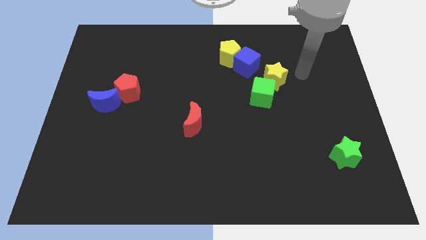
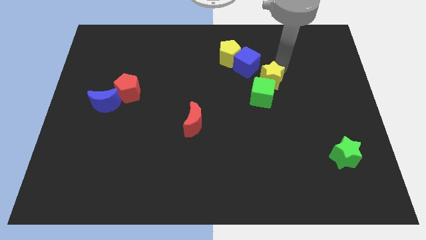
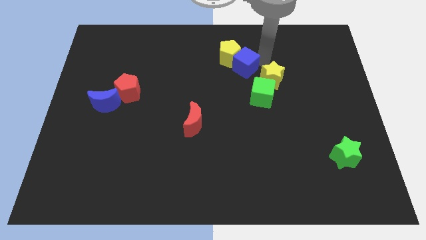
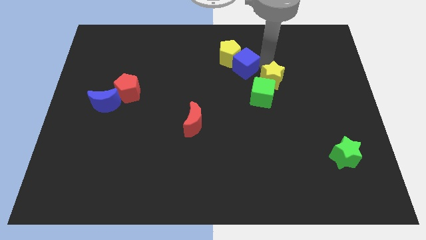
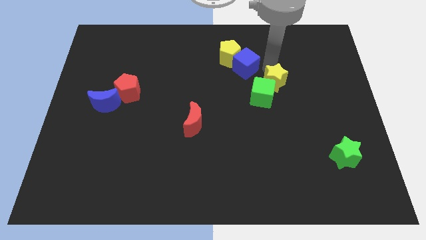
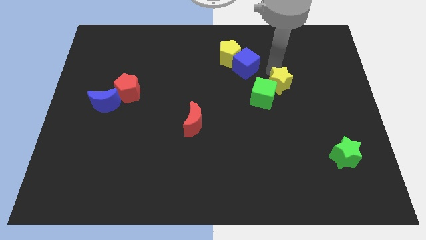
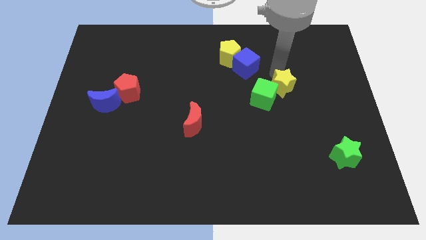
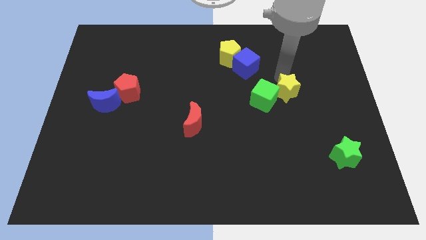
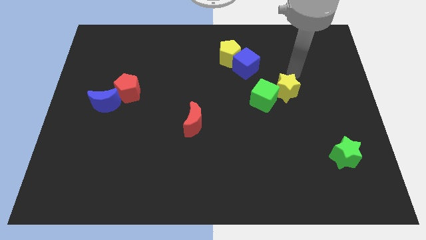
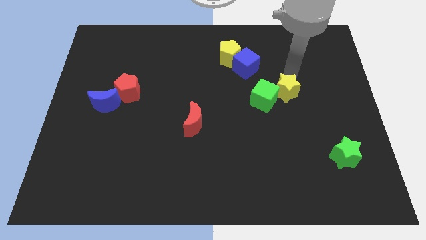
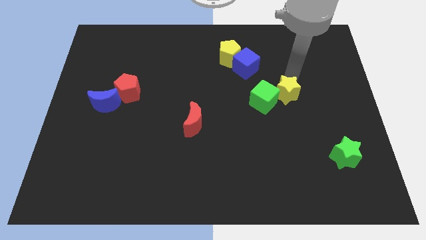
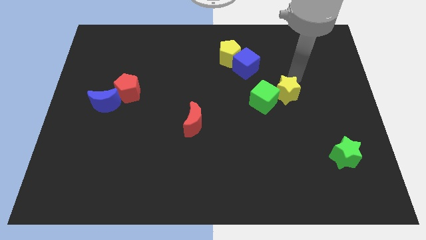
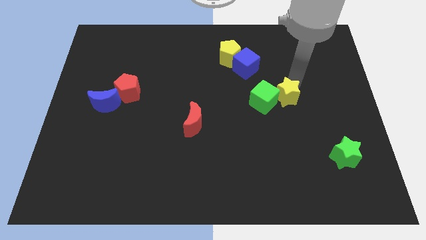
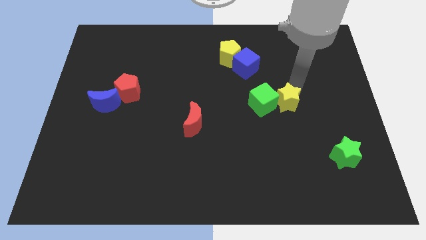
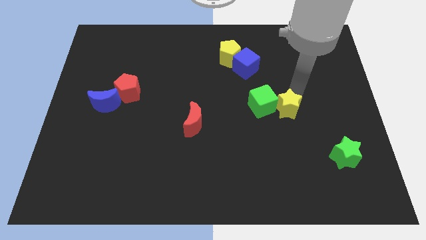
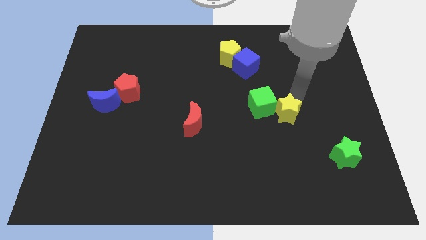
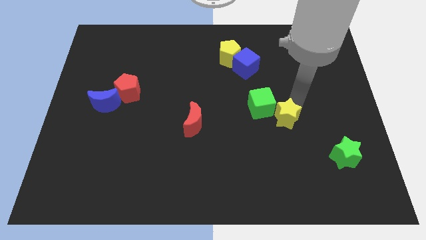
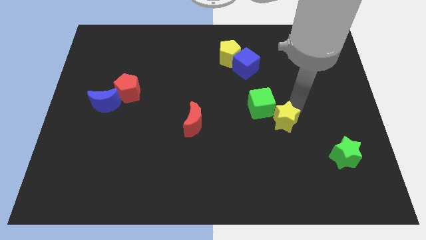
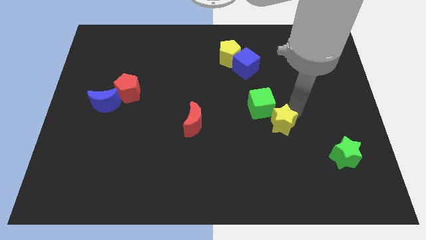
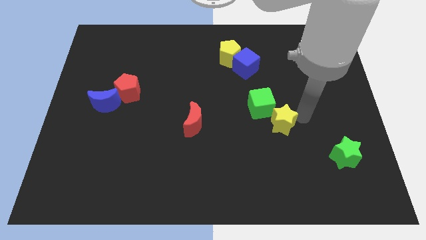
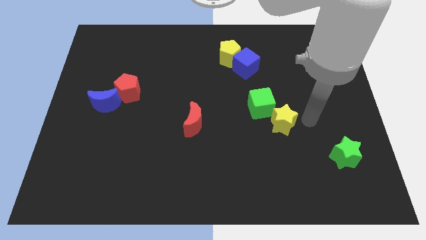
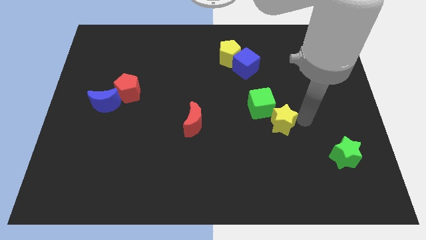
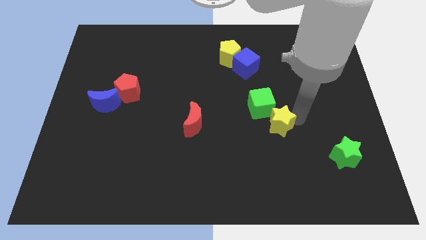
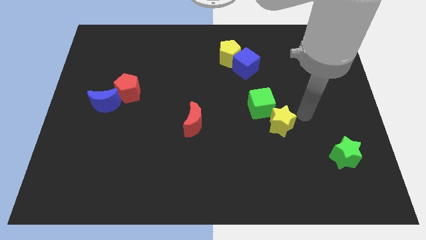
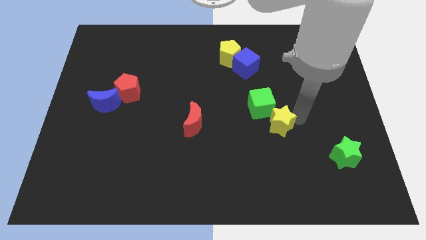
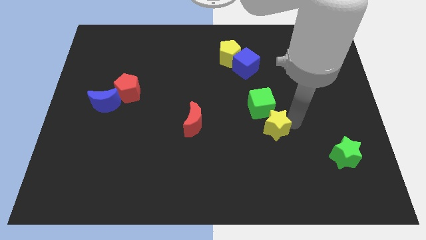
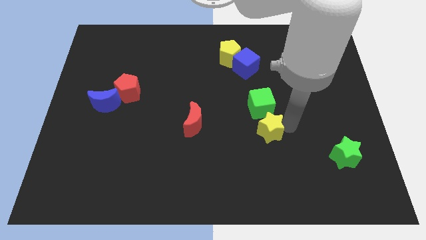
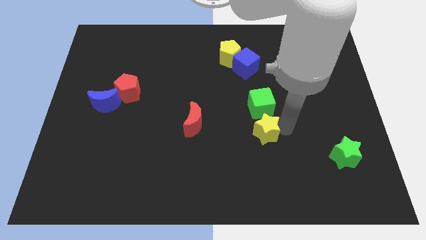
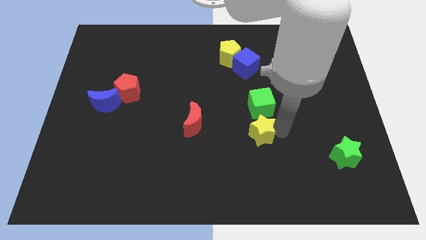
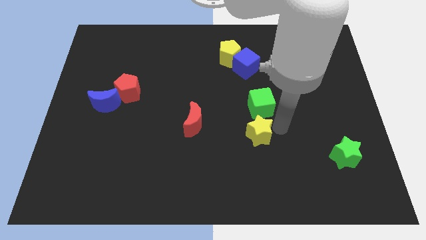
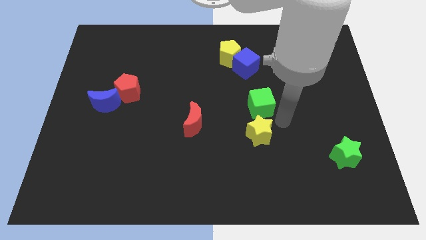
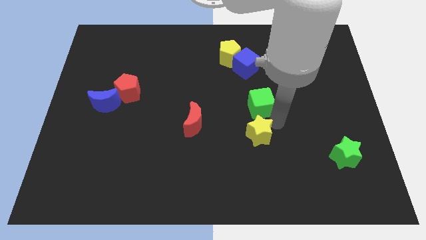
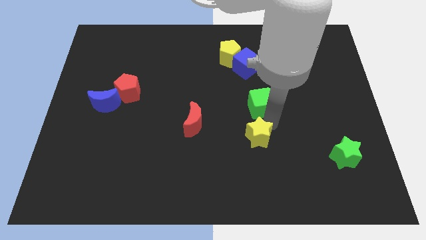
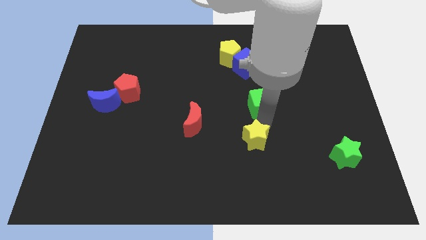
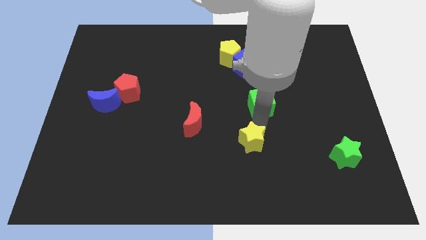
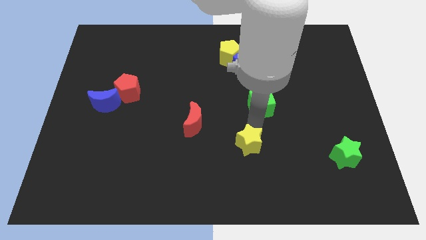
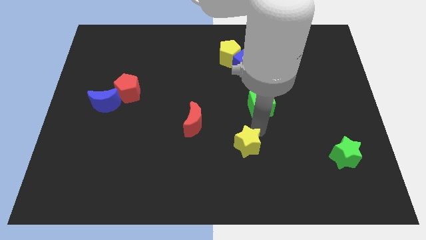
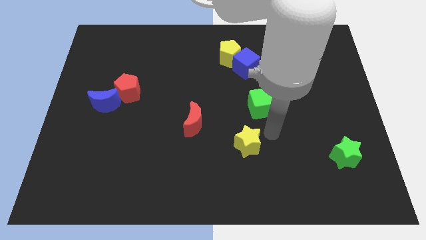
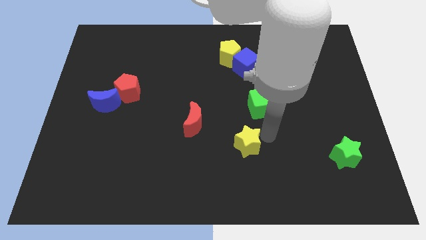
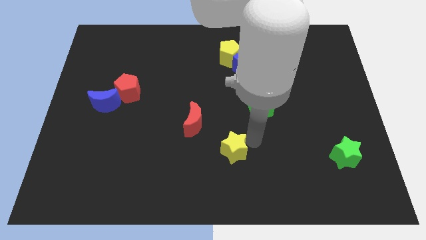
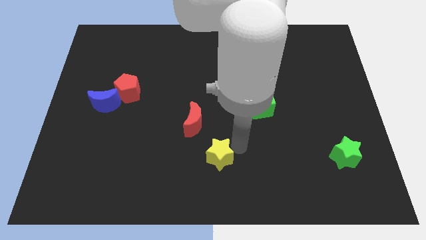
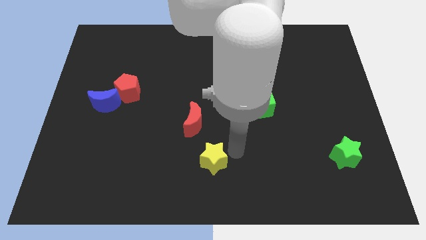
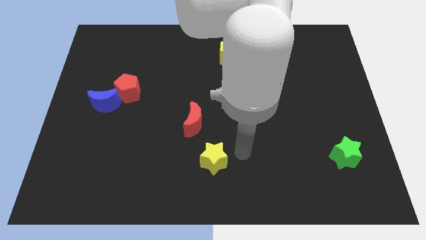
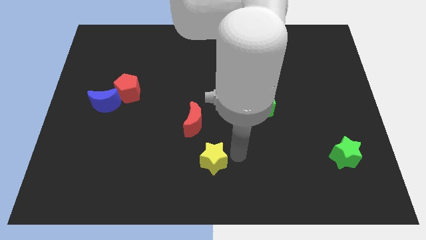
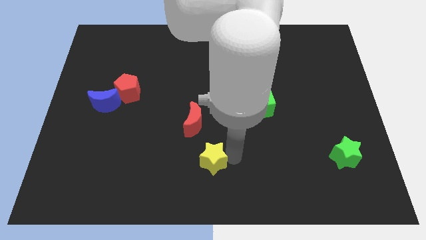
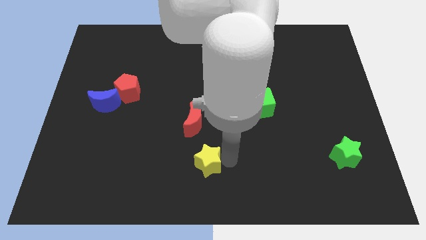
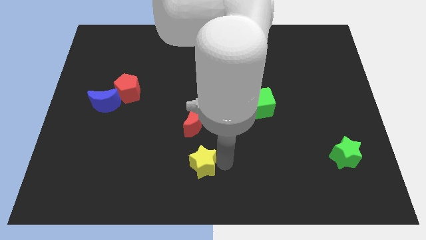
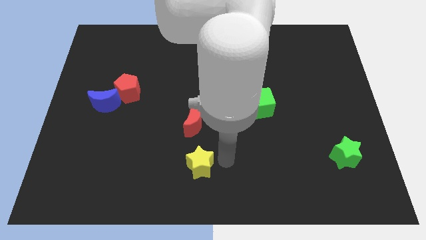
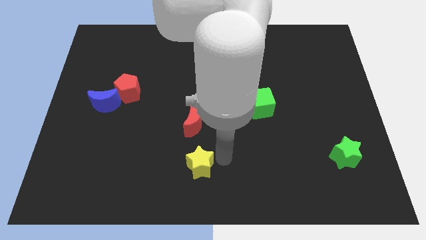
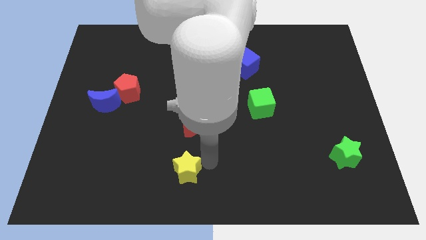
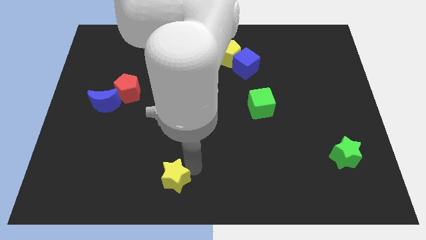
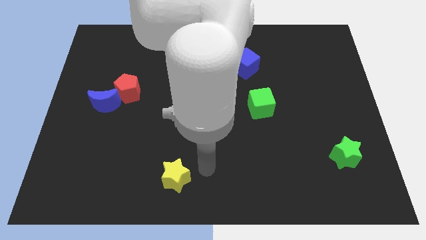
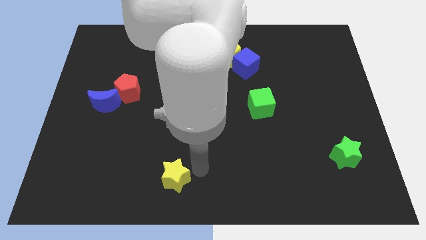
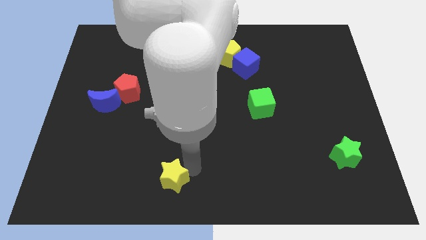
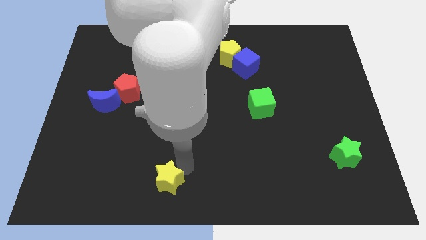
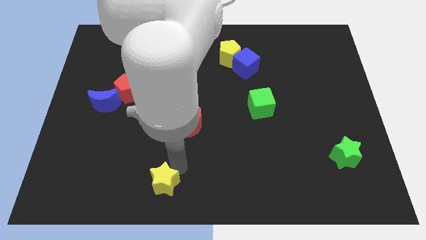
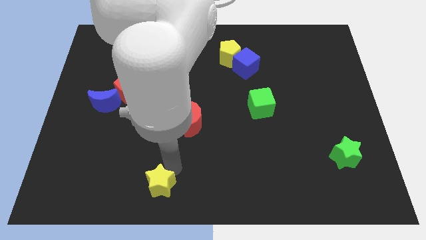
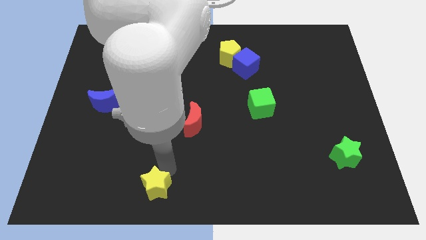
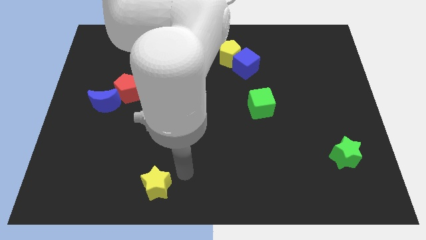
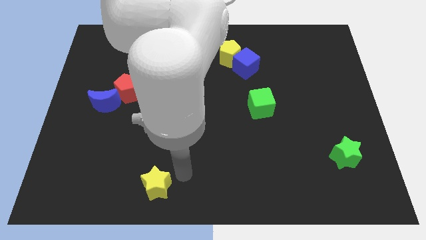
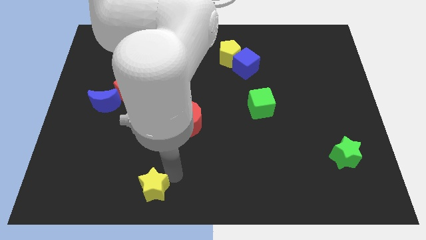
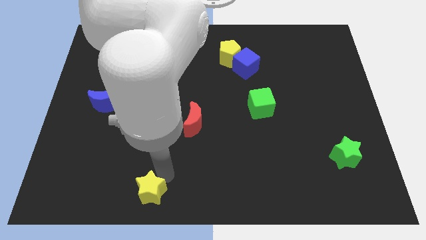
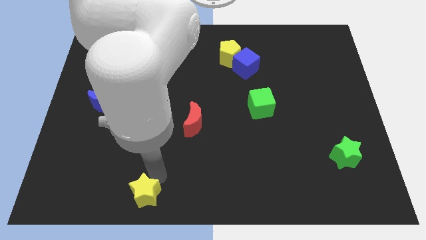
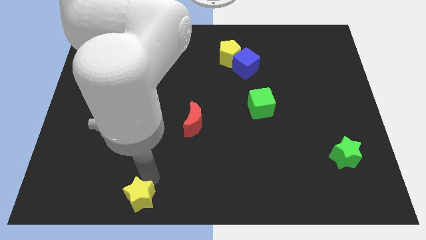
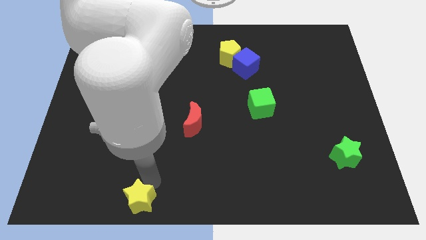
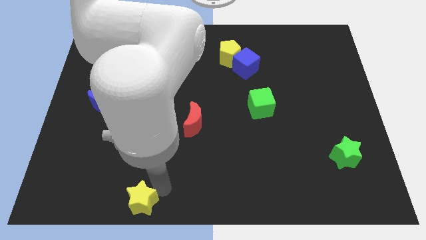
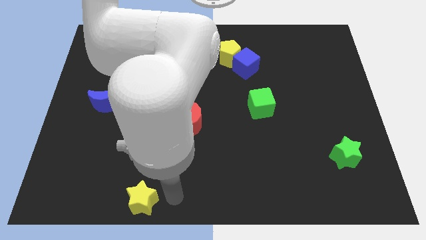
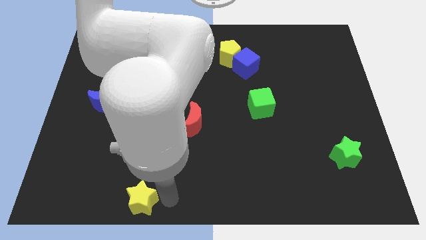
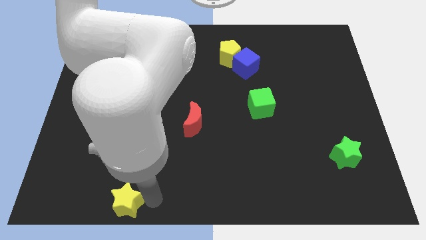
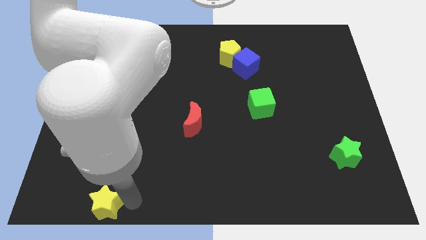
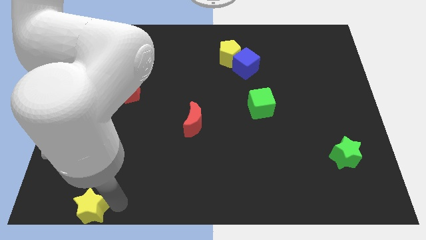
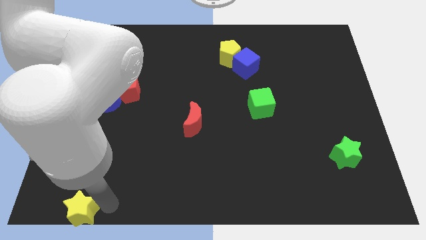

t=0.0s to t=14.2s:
move the yellow star to the bottom left of the board
